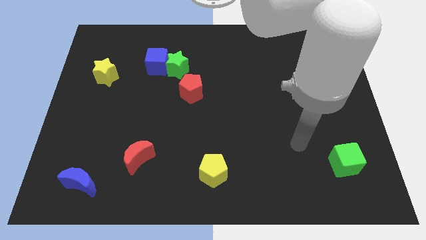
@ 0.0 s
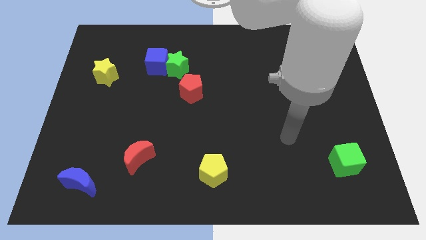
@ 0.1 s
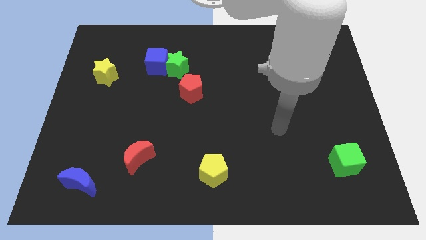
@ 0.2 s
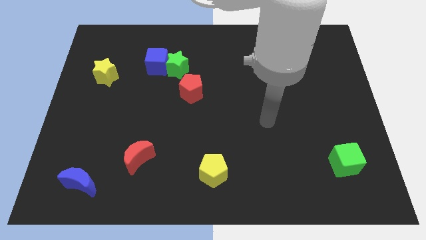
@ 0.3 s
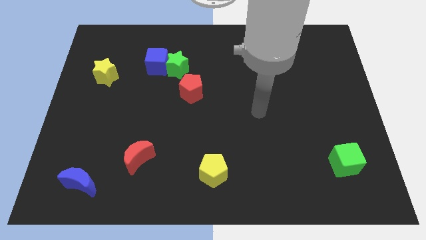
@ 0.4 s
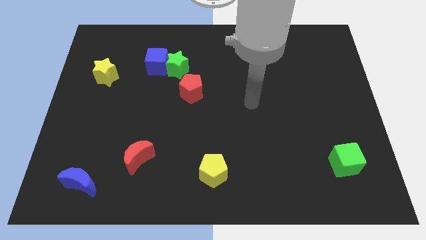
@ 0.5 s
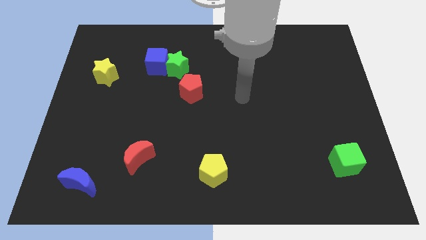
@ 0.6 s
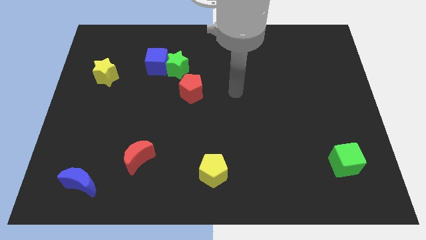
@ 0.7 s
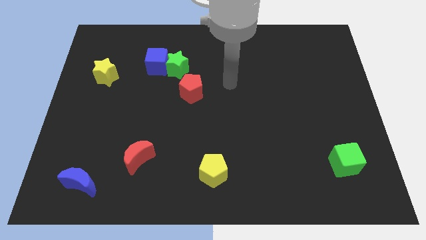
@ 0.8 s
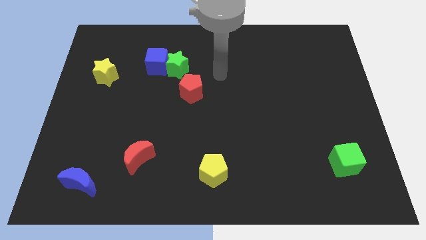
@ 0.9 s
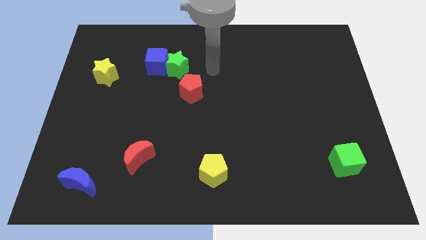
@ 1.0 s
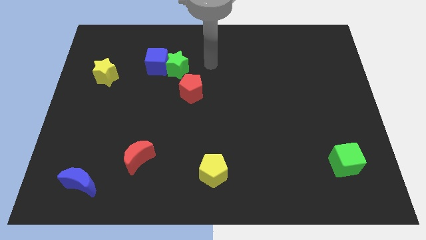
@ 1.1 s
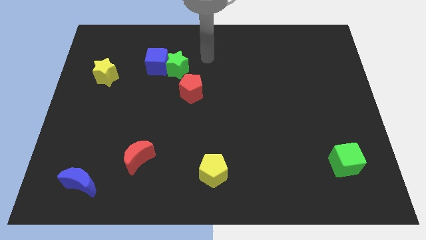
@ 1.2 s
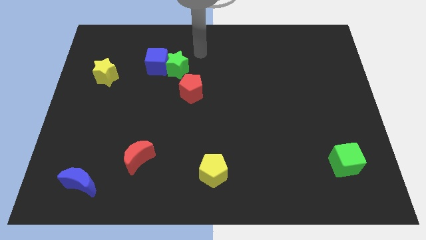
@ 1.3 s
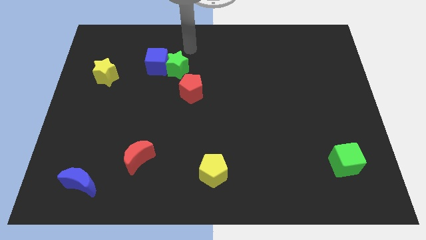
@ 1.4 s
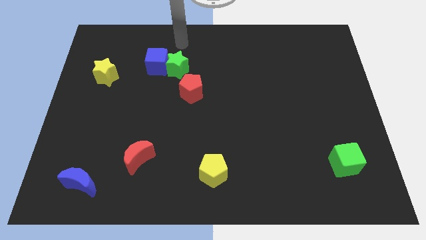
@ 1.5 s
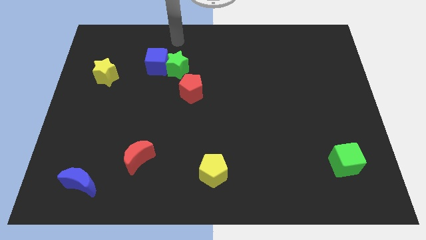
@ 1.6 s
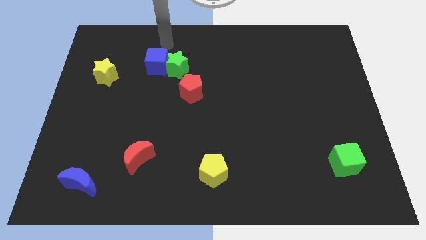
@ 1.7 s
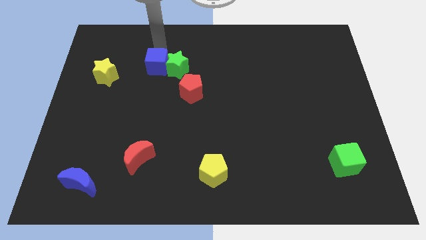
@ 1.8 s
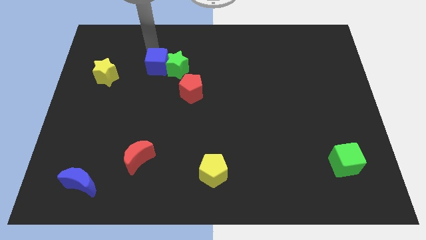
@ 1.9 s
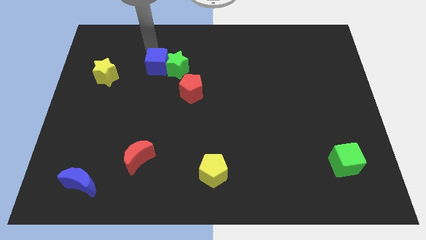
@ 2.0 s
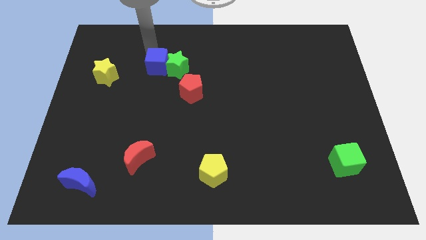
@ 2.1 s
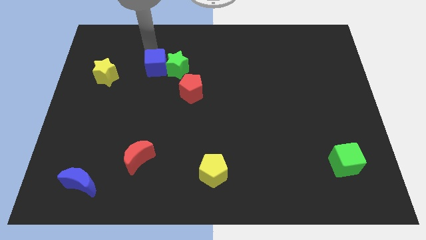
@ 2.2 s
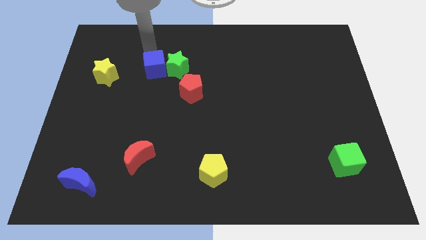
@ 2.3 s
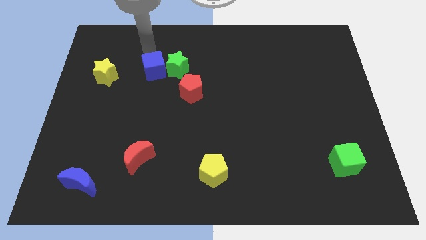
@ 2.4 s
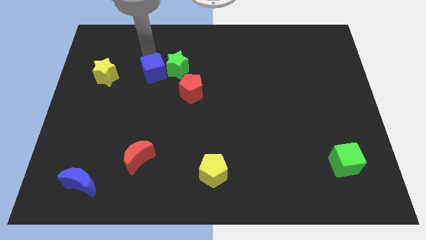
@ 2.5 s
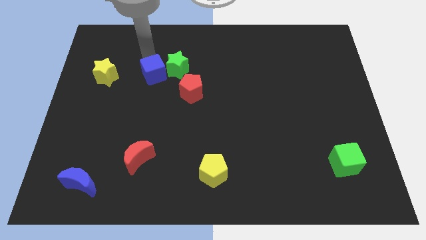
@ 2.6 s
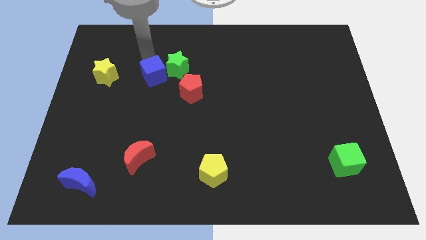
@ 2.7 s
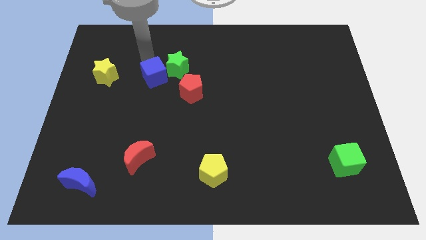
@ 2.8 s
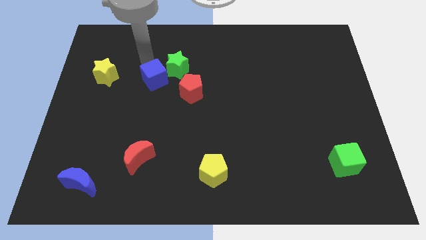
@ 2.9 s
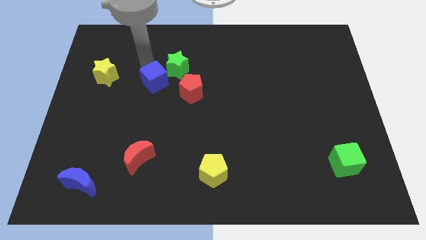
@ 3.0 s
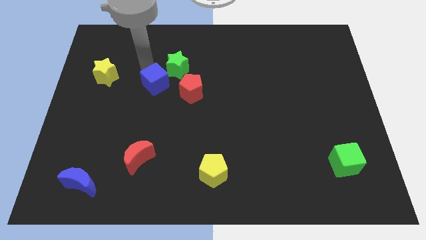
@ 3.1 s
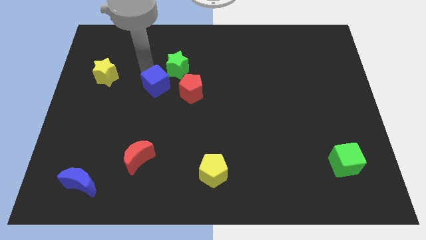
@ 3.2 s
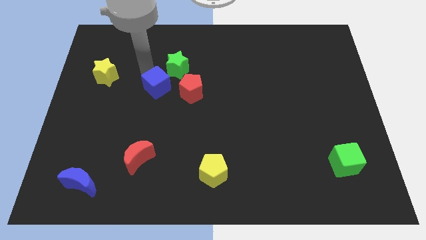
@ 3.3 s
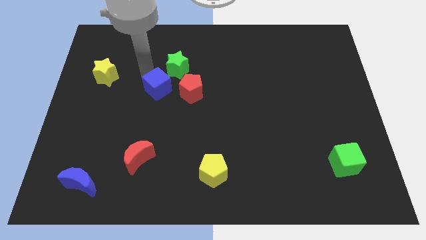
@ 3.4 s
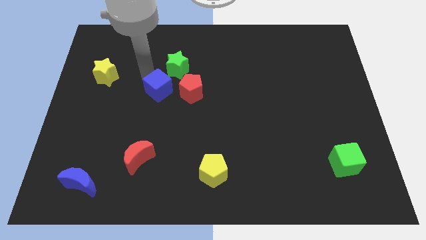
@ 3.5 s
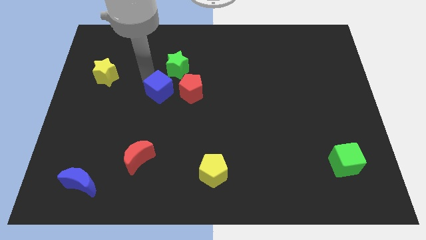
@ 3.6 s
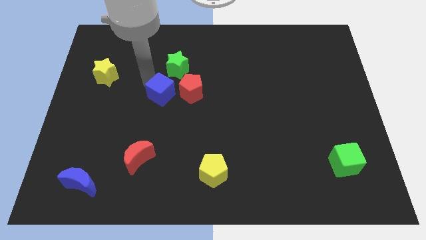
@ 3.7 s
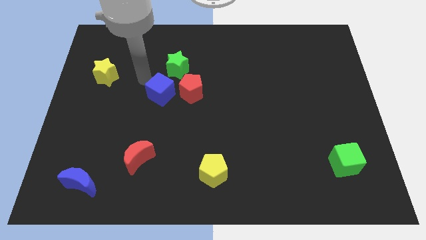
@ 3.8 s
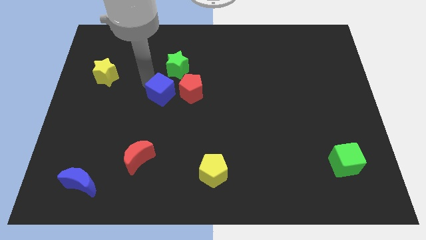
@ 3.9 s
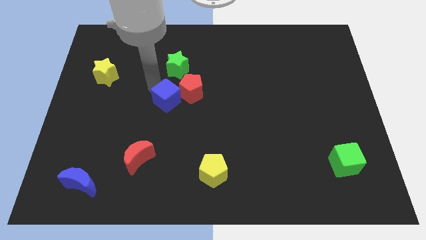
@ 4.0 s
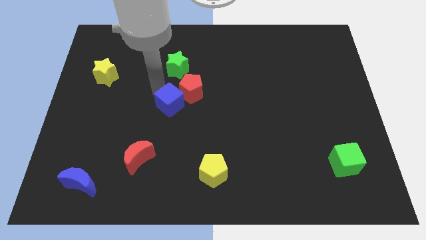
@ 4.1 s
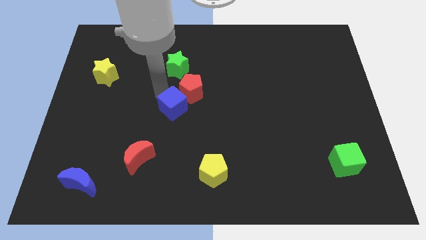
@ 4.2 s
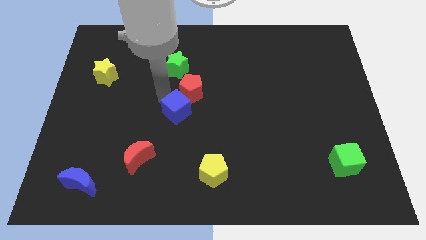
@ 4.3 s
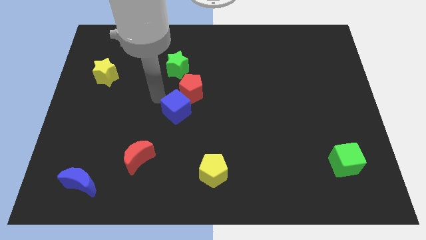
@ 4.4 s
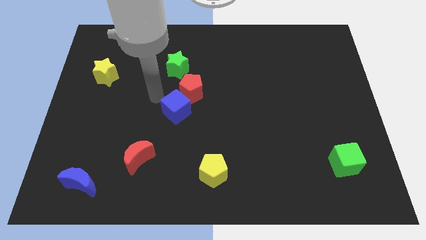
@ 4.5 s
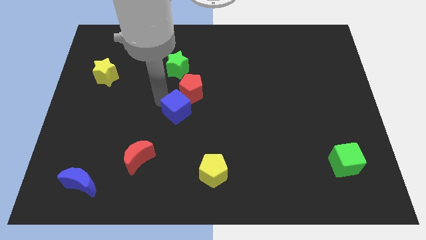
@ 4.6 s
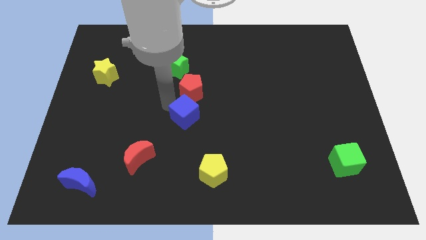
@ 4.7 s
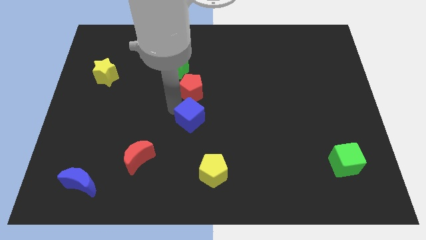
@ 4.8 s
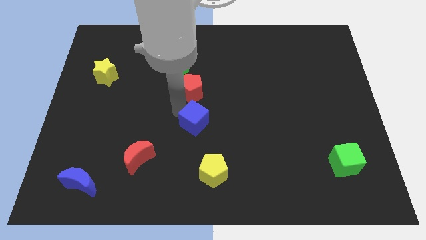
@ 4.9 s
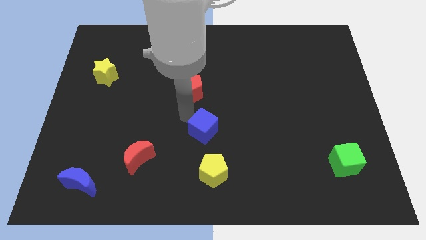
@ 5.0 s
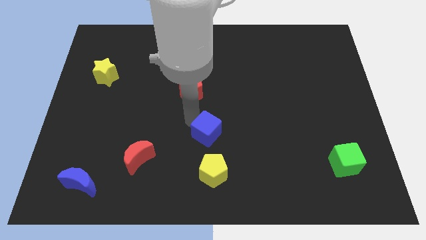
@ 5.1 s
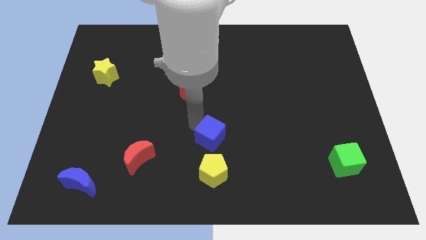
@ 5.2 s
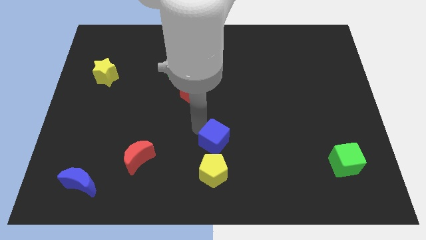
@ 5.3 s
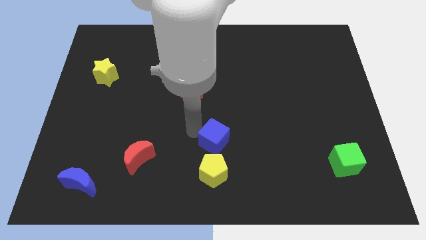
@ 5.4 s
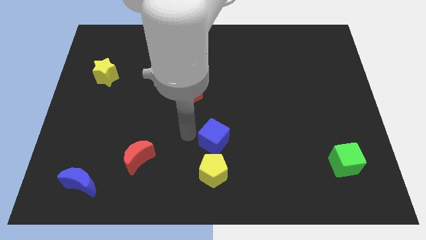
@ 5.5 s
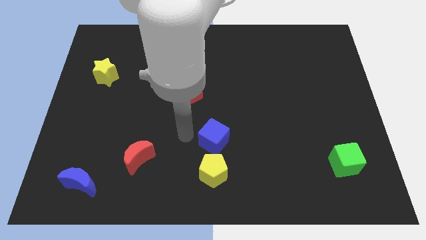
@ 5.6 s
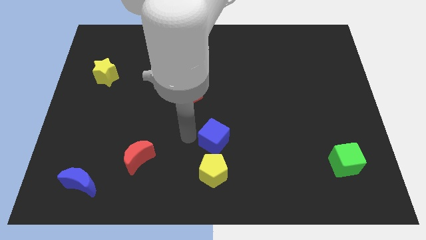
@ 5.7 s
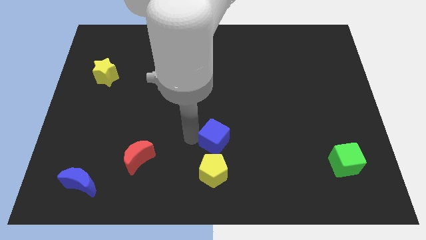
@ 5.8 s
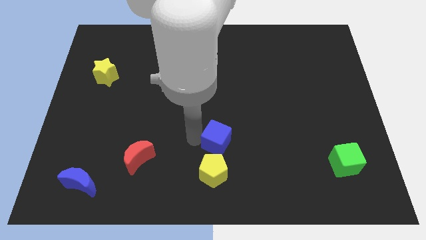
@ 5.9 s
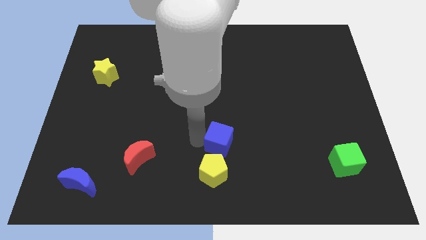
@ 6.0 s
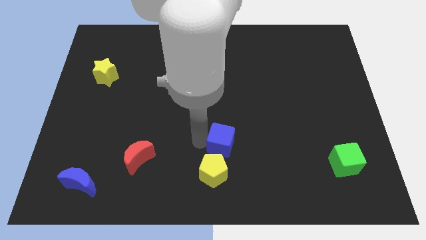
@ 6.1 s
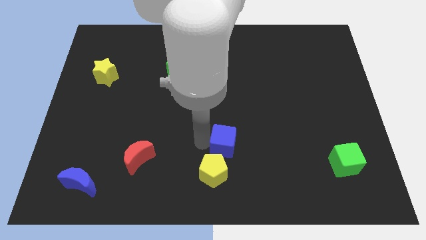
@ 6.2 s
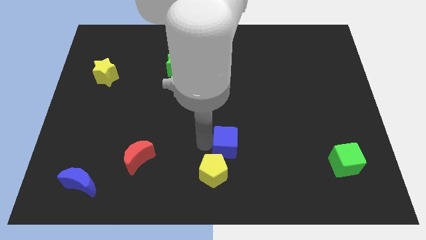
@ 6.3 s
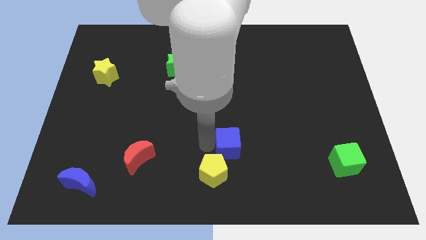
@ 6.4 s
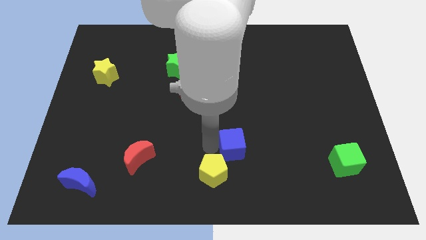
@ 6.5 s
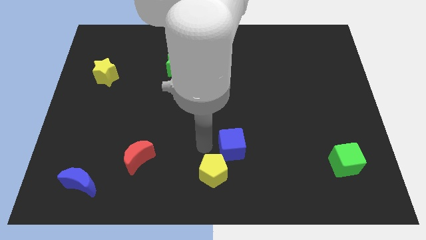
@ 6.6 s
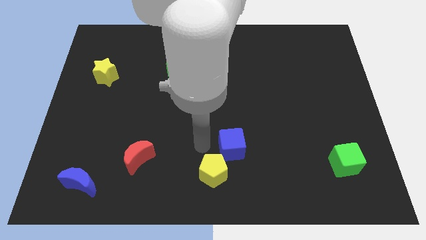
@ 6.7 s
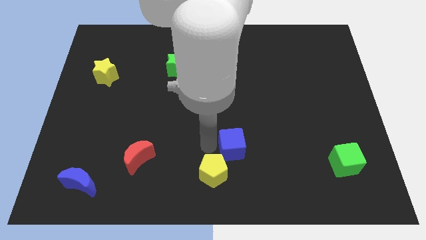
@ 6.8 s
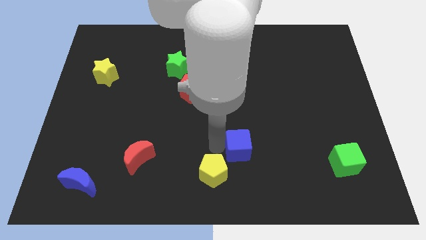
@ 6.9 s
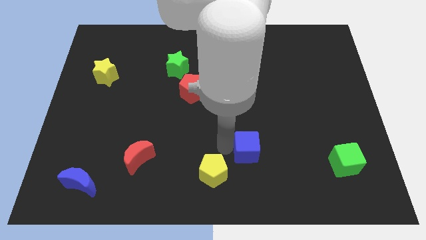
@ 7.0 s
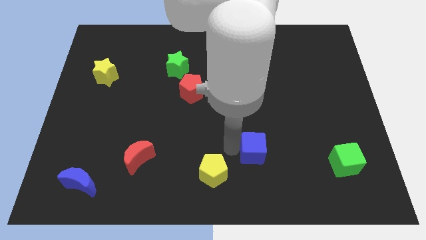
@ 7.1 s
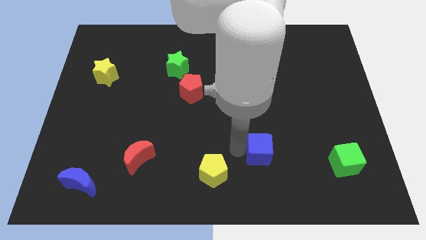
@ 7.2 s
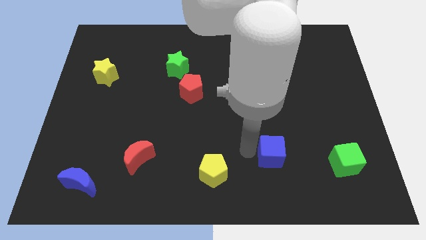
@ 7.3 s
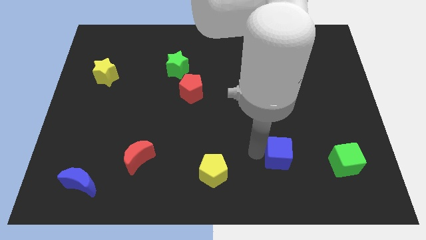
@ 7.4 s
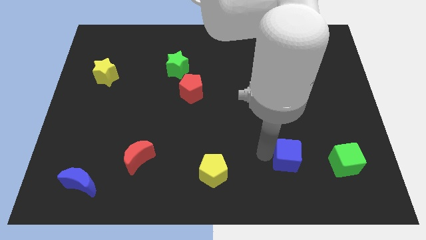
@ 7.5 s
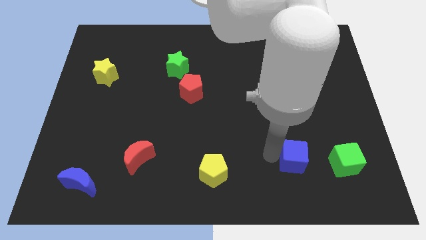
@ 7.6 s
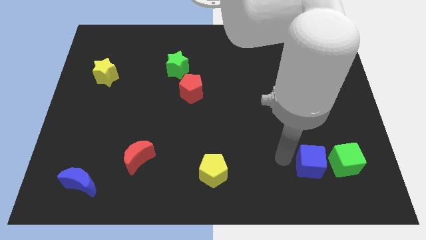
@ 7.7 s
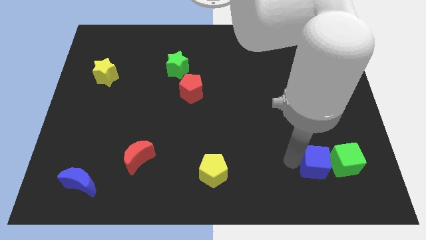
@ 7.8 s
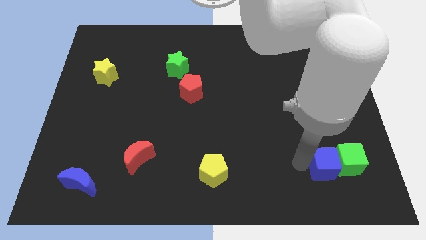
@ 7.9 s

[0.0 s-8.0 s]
slide the blue cube close to the green cube
